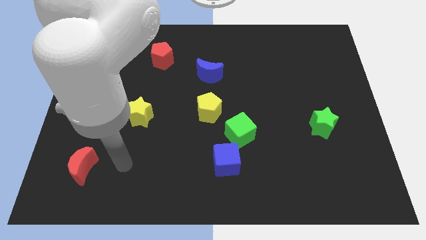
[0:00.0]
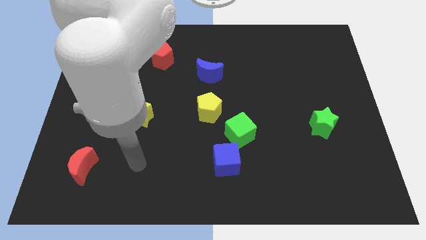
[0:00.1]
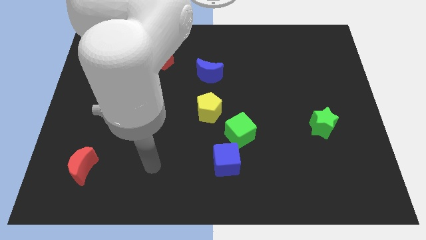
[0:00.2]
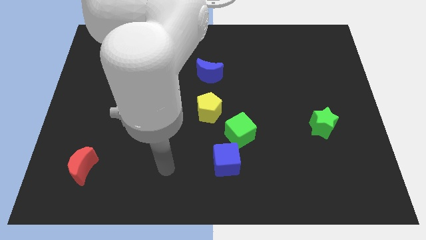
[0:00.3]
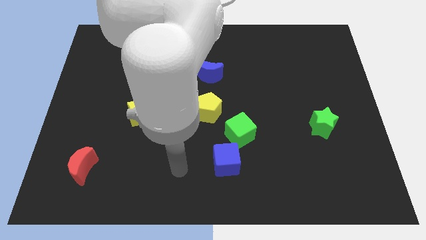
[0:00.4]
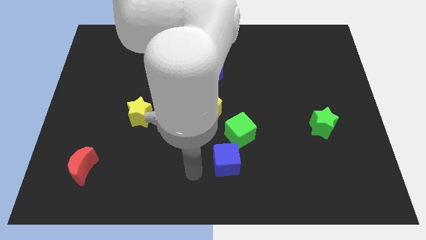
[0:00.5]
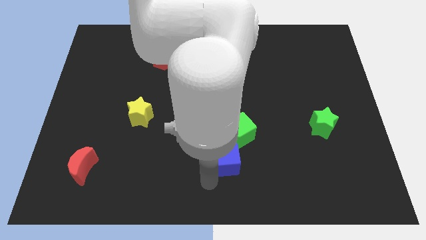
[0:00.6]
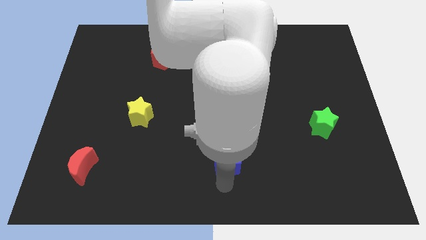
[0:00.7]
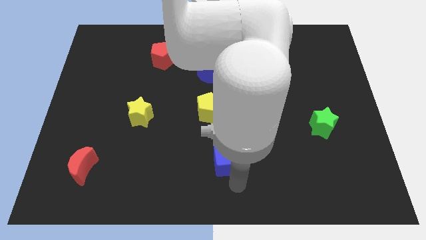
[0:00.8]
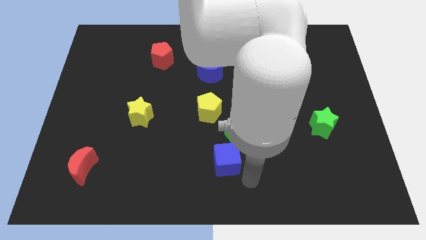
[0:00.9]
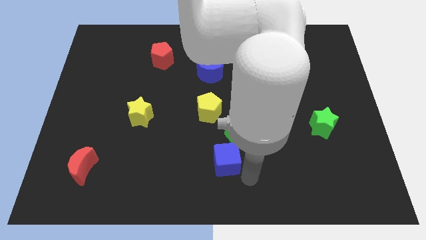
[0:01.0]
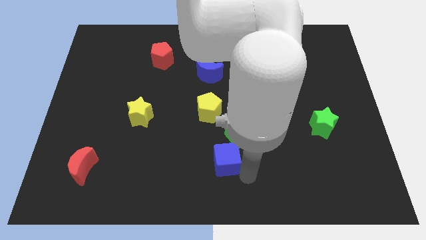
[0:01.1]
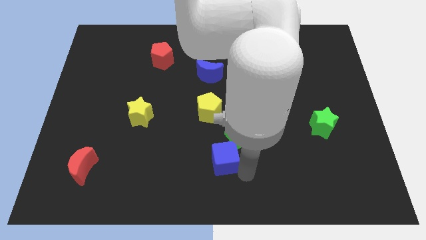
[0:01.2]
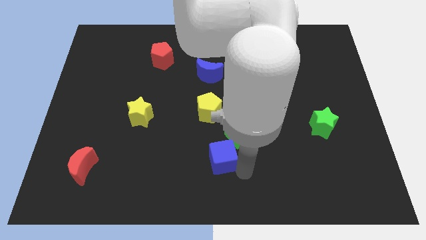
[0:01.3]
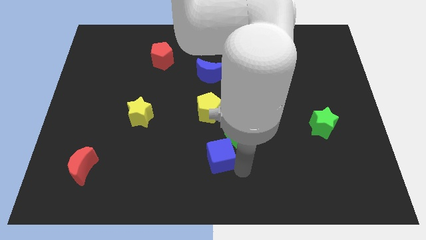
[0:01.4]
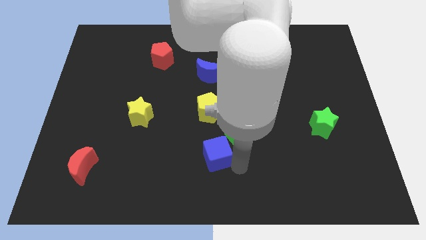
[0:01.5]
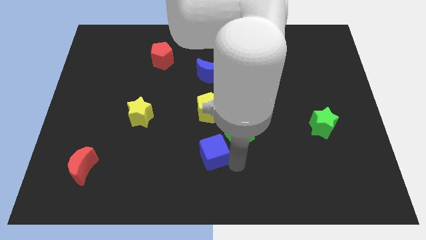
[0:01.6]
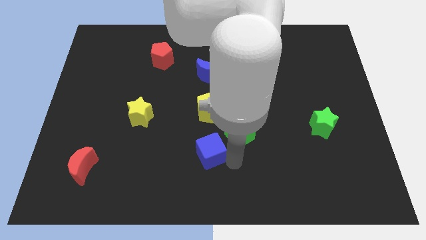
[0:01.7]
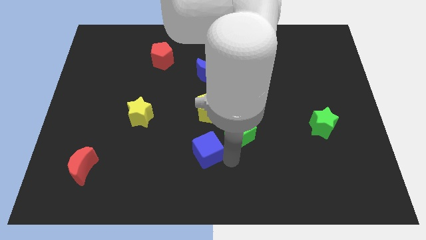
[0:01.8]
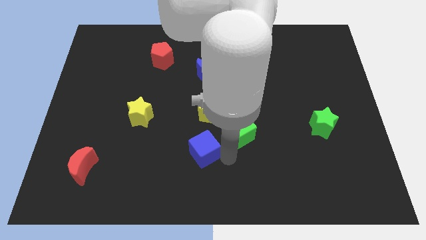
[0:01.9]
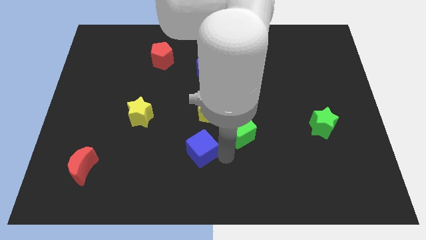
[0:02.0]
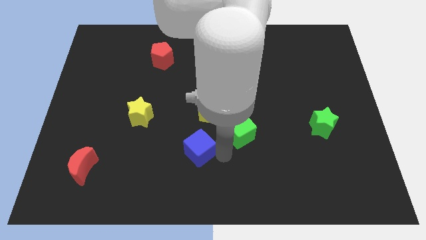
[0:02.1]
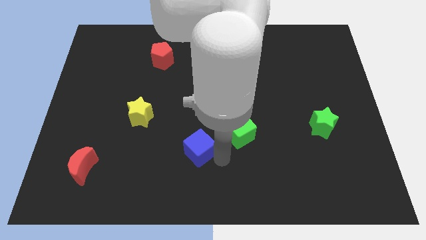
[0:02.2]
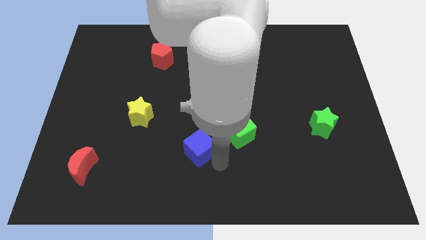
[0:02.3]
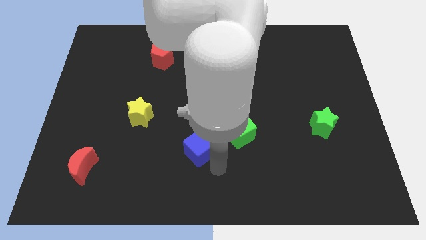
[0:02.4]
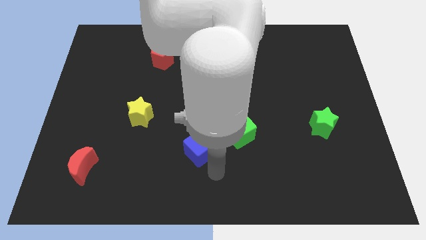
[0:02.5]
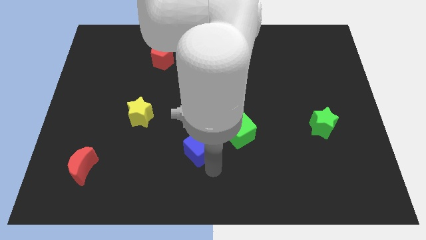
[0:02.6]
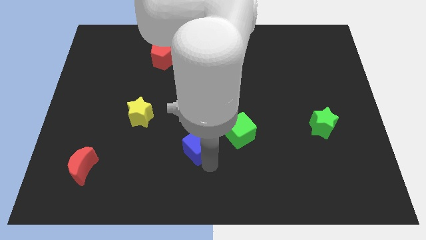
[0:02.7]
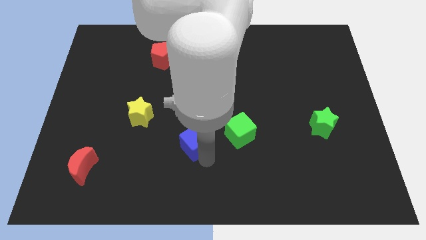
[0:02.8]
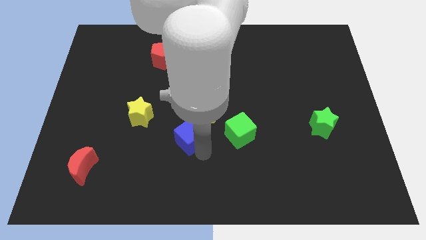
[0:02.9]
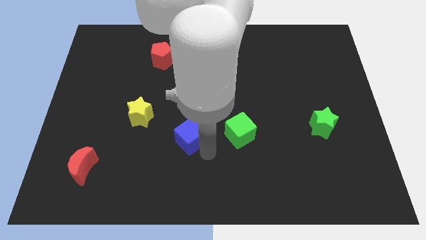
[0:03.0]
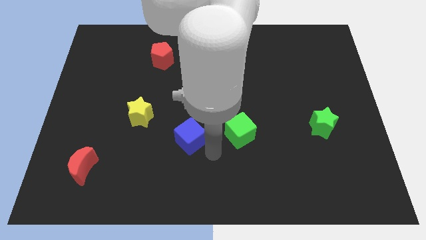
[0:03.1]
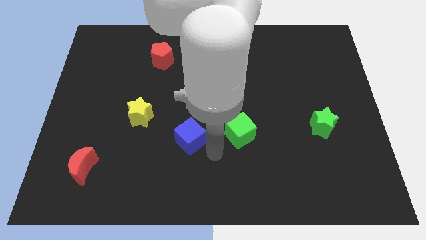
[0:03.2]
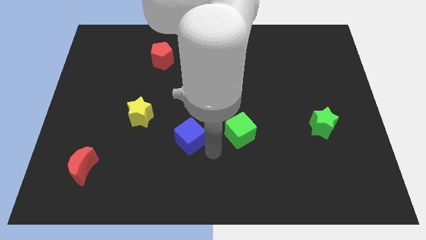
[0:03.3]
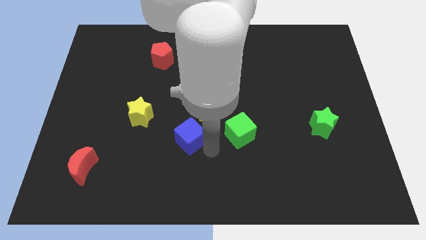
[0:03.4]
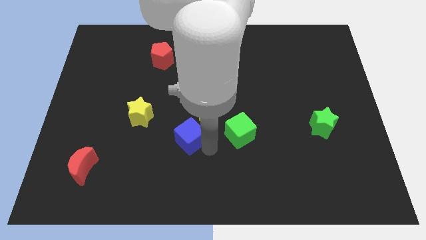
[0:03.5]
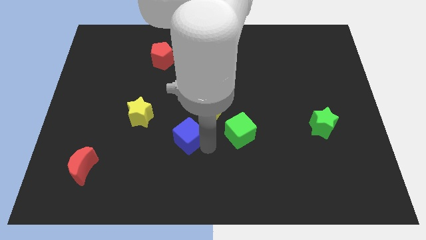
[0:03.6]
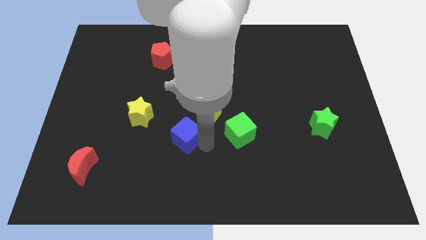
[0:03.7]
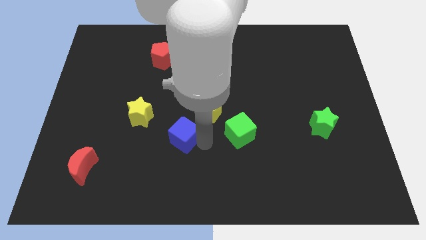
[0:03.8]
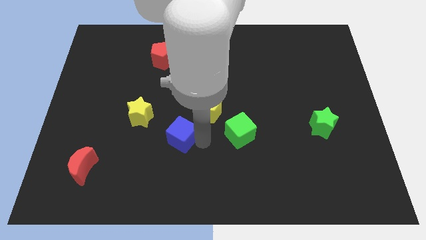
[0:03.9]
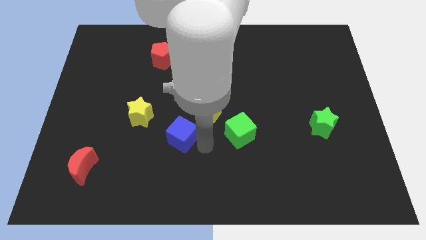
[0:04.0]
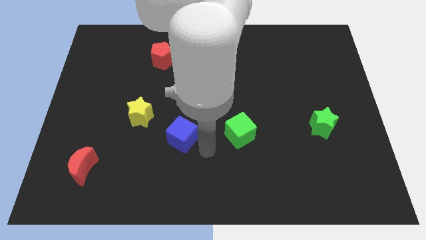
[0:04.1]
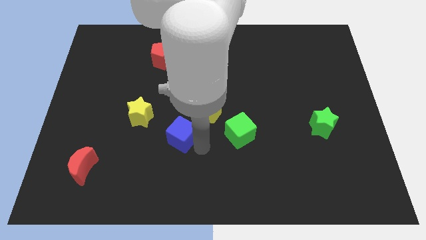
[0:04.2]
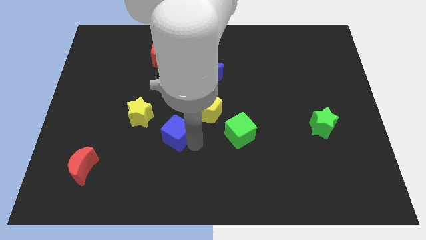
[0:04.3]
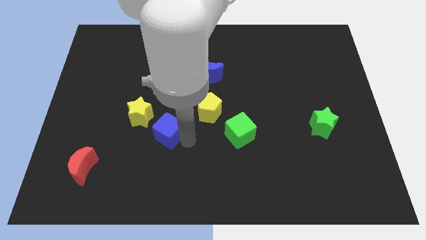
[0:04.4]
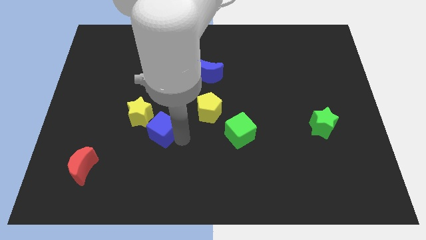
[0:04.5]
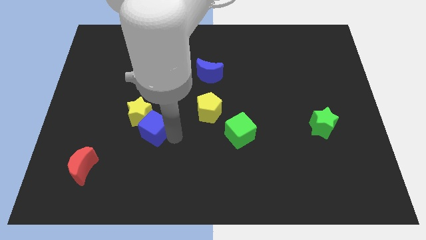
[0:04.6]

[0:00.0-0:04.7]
move the blue cube towards the yellow star

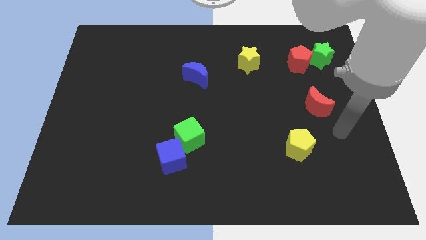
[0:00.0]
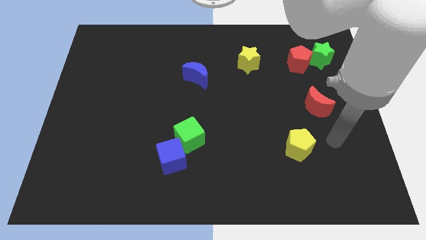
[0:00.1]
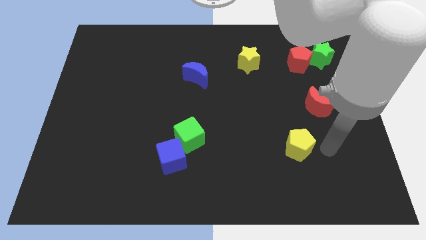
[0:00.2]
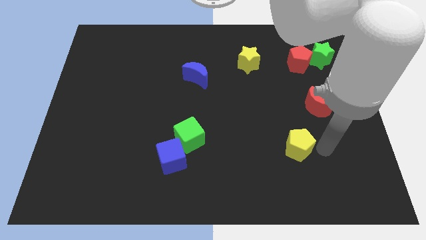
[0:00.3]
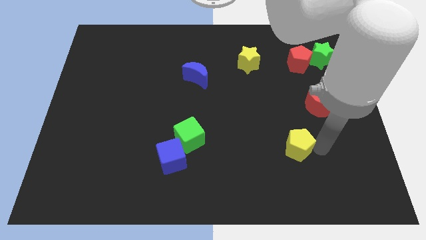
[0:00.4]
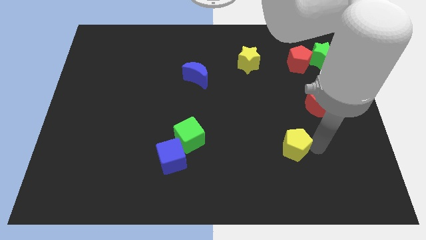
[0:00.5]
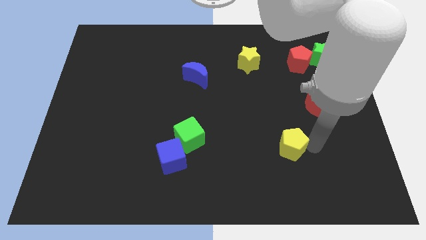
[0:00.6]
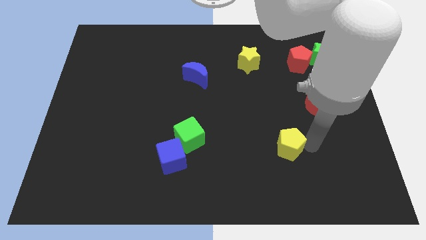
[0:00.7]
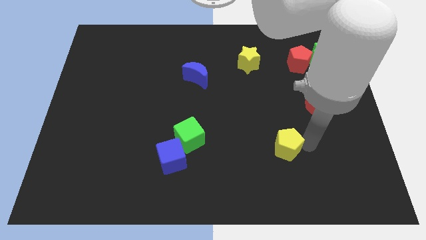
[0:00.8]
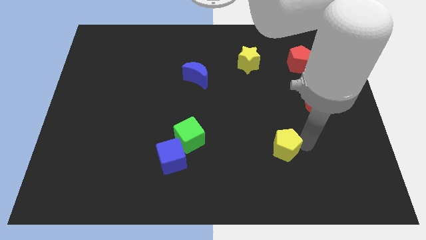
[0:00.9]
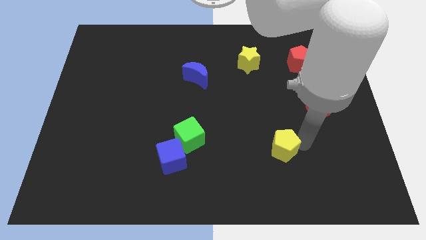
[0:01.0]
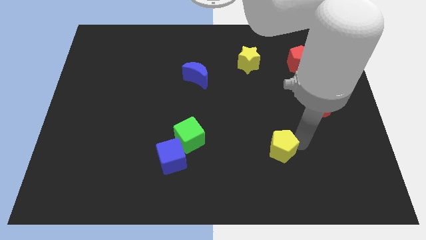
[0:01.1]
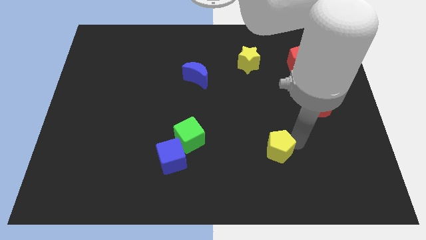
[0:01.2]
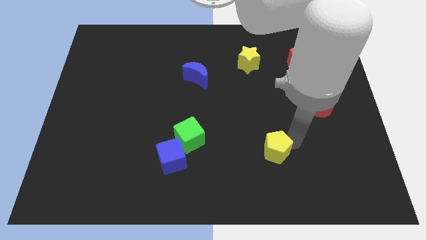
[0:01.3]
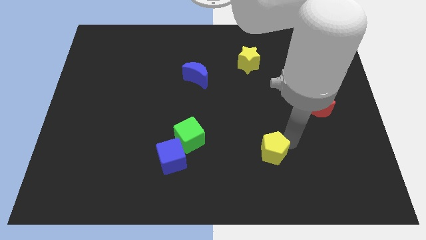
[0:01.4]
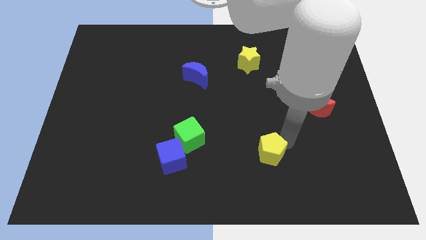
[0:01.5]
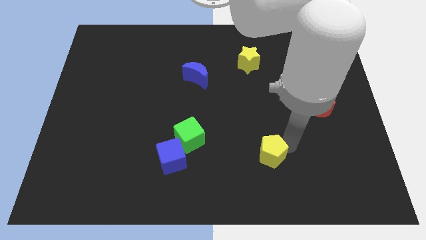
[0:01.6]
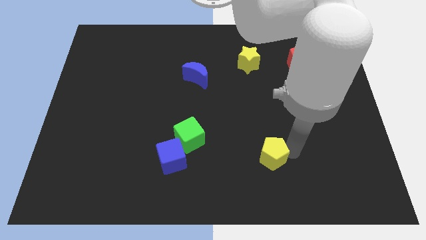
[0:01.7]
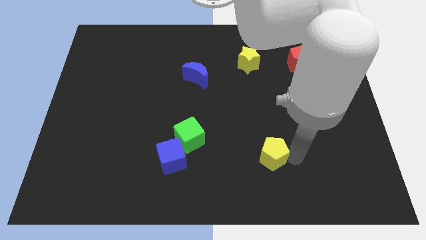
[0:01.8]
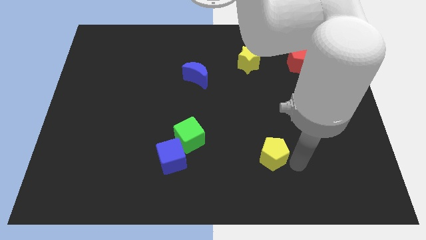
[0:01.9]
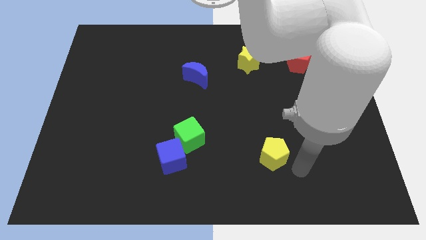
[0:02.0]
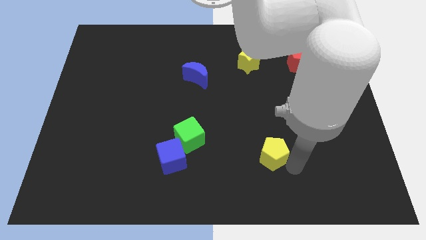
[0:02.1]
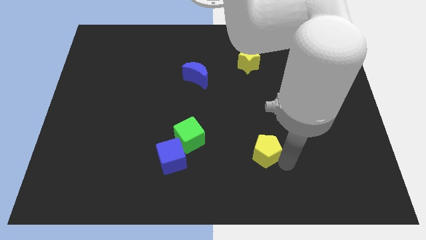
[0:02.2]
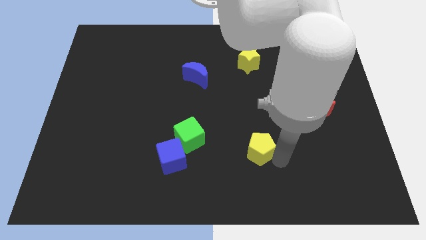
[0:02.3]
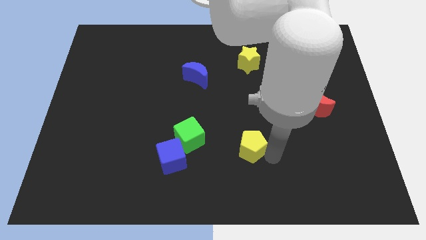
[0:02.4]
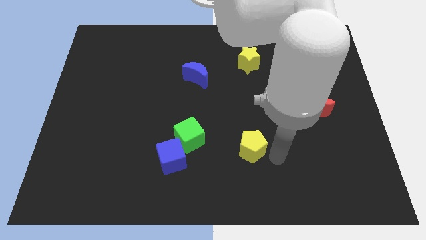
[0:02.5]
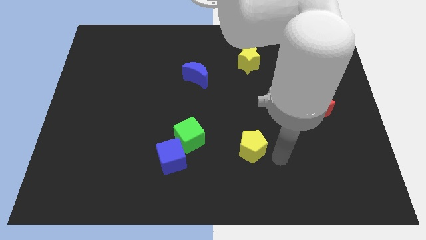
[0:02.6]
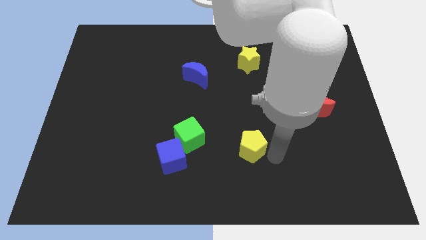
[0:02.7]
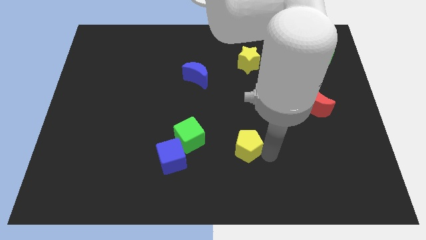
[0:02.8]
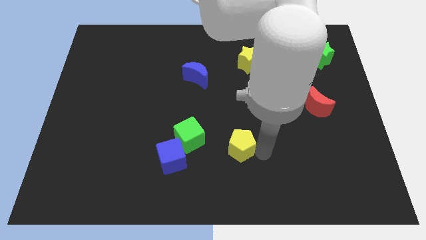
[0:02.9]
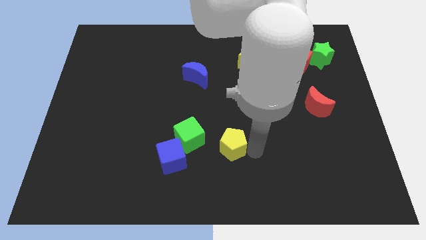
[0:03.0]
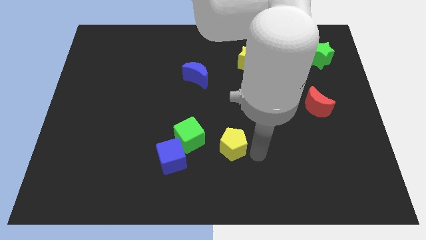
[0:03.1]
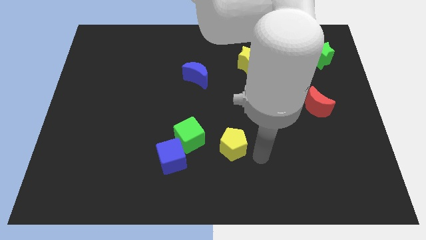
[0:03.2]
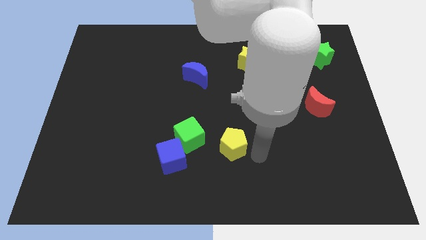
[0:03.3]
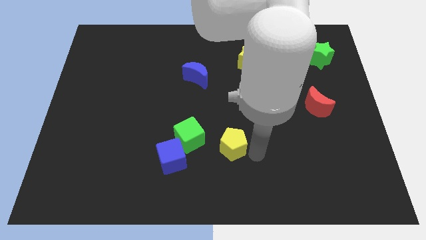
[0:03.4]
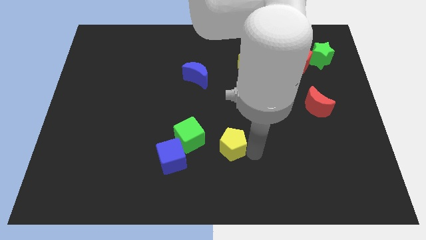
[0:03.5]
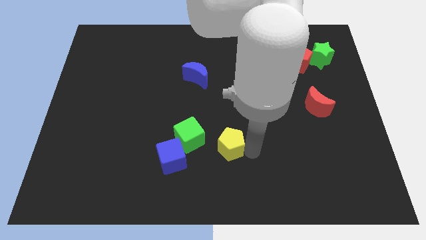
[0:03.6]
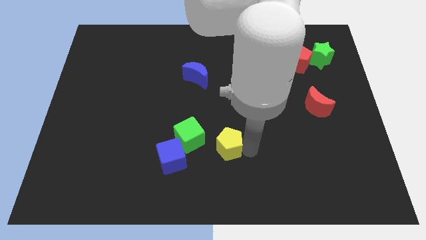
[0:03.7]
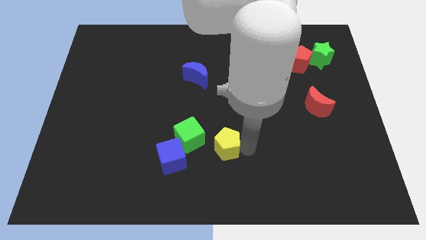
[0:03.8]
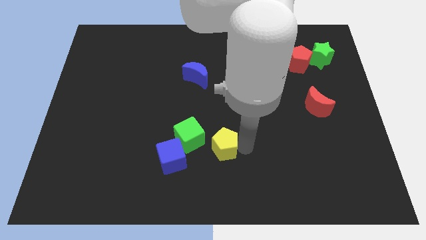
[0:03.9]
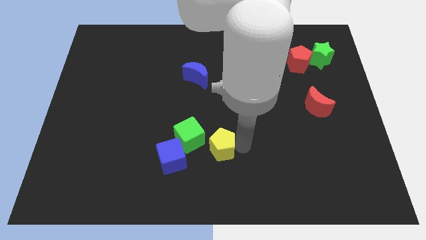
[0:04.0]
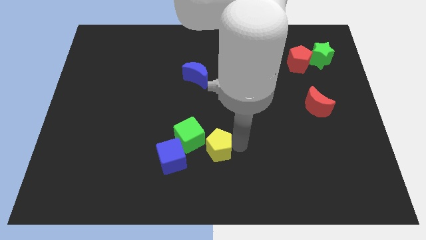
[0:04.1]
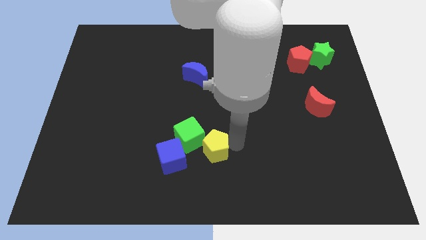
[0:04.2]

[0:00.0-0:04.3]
slide the yellow pentagon close to the green cube
